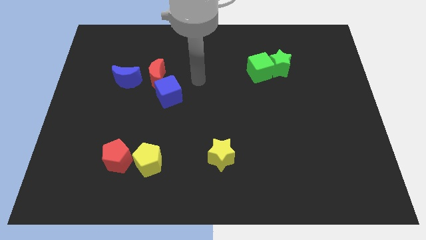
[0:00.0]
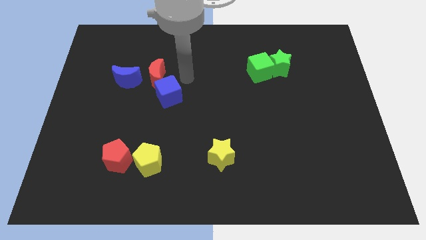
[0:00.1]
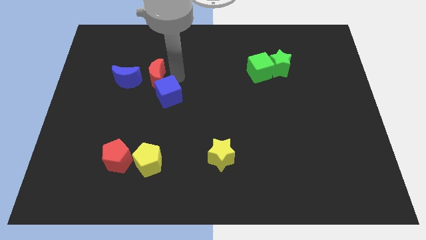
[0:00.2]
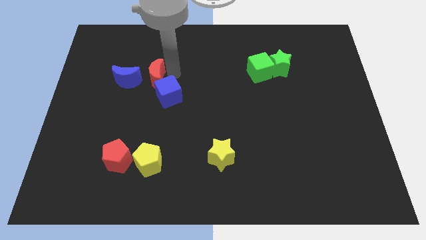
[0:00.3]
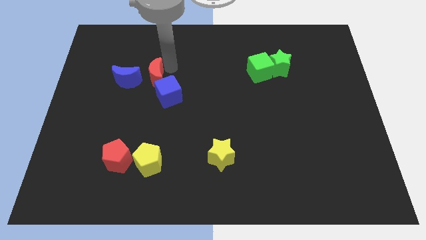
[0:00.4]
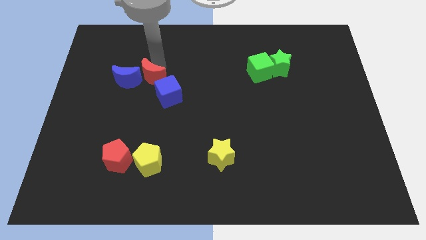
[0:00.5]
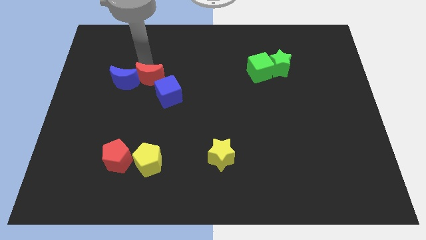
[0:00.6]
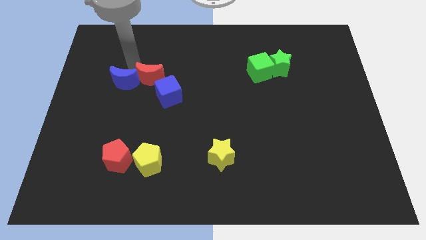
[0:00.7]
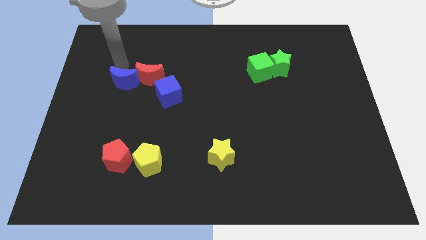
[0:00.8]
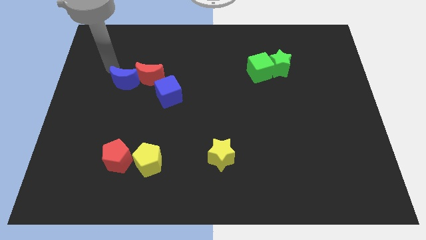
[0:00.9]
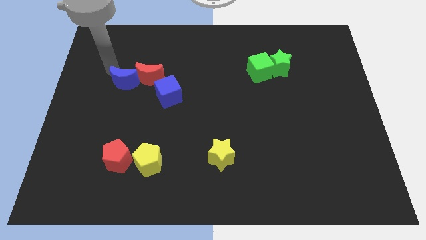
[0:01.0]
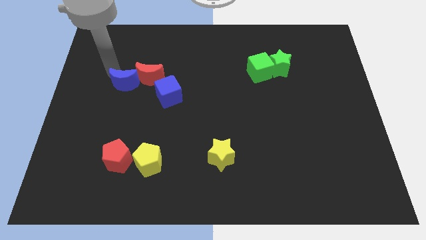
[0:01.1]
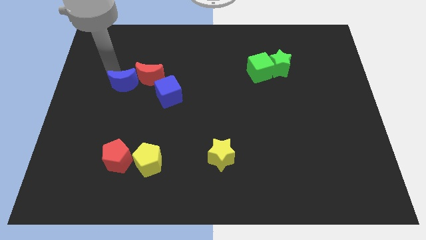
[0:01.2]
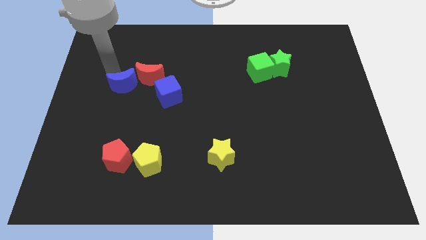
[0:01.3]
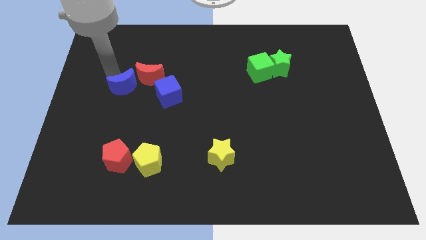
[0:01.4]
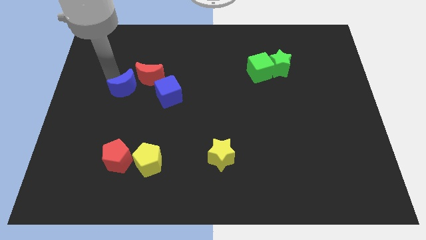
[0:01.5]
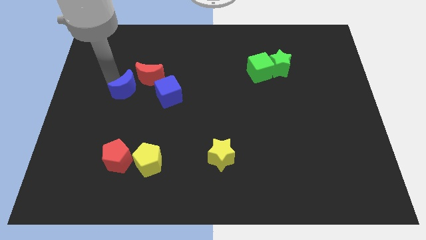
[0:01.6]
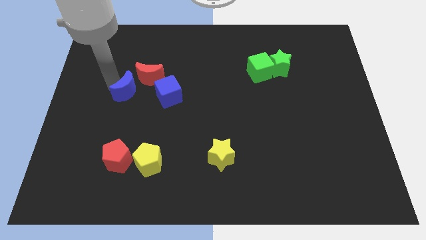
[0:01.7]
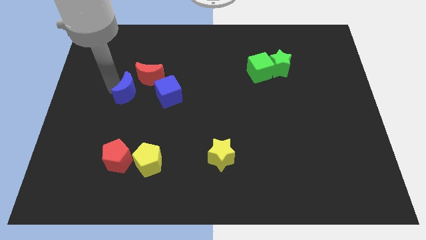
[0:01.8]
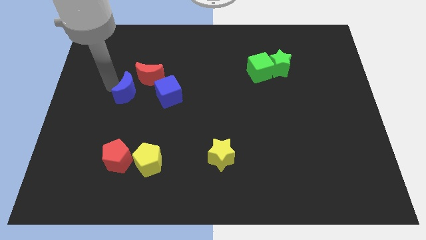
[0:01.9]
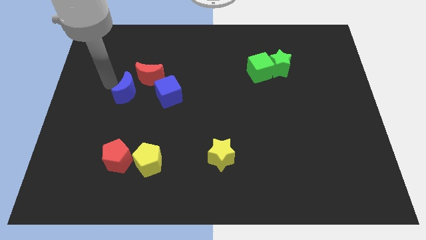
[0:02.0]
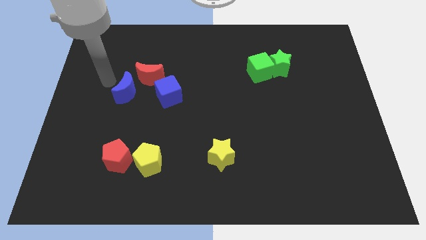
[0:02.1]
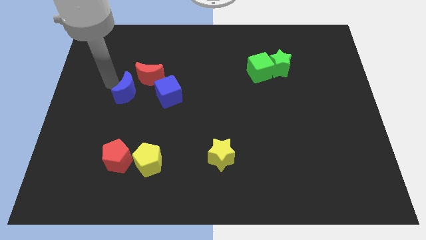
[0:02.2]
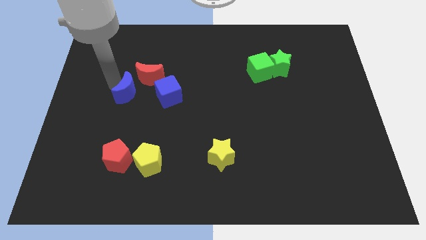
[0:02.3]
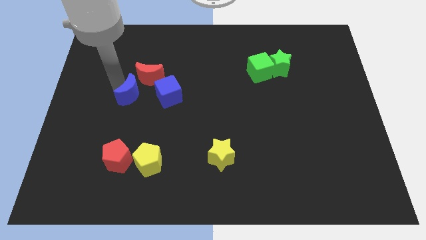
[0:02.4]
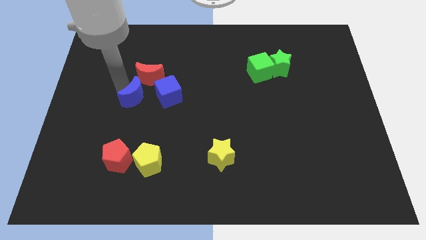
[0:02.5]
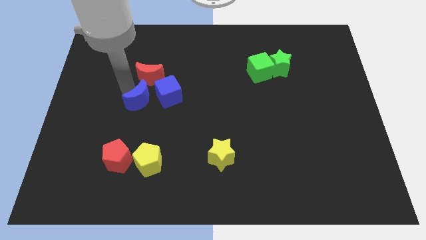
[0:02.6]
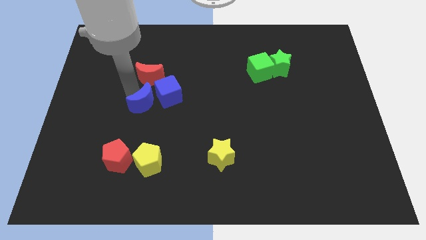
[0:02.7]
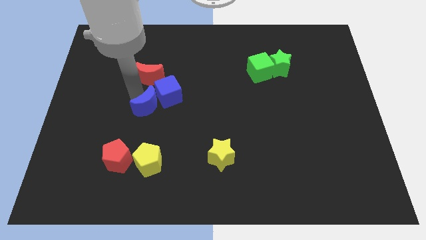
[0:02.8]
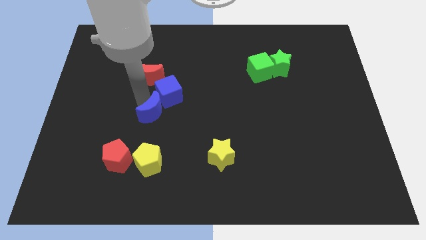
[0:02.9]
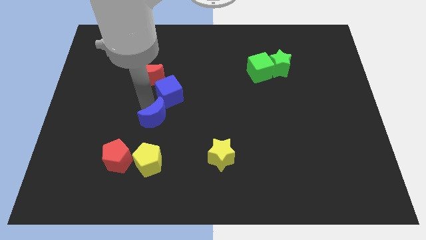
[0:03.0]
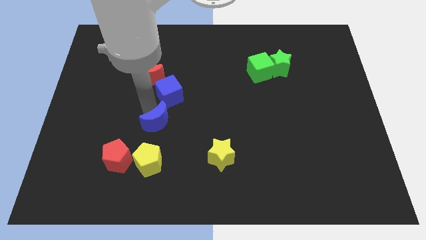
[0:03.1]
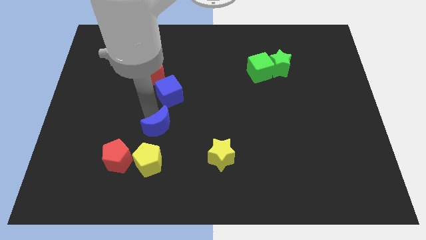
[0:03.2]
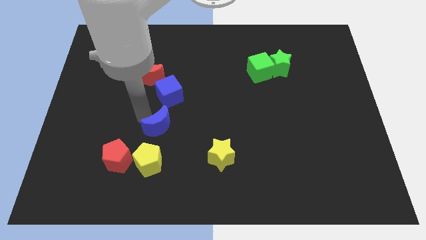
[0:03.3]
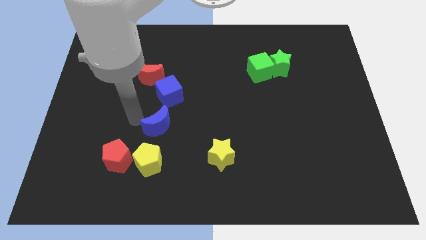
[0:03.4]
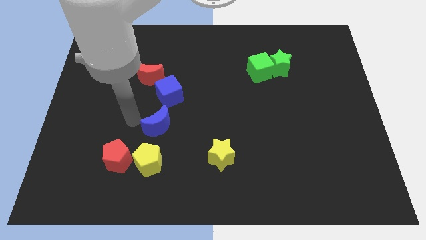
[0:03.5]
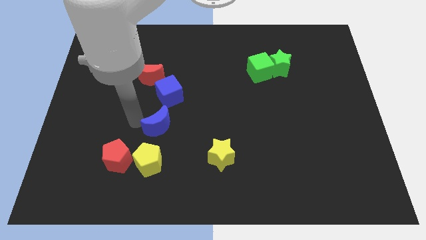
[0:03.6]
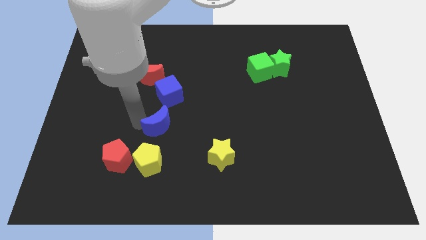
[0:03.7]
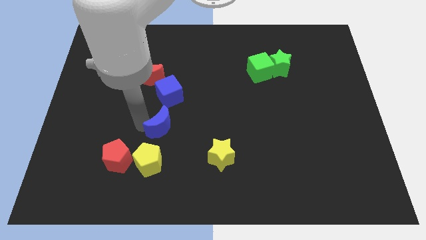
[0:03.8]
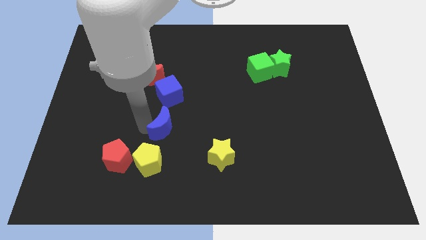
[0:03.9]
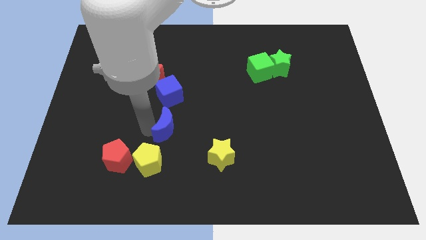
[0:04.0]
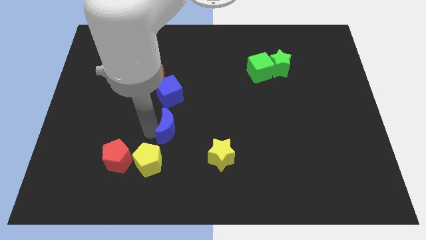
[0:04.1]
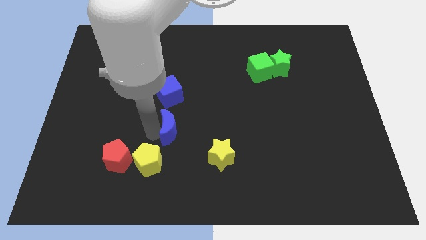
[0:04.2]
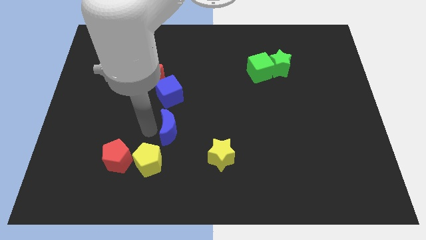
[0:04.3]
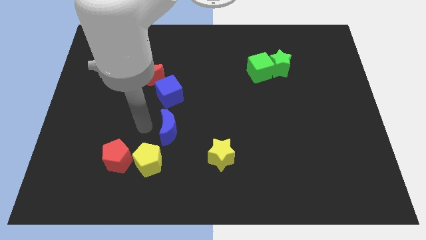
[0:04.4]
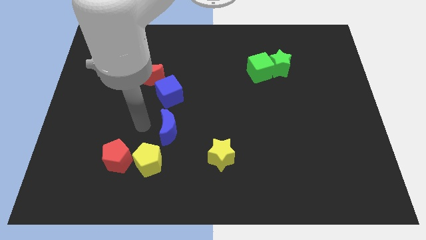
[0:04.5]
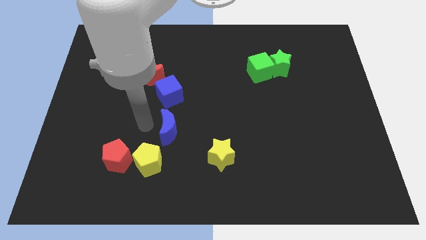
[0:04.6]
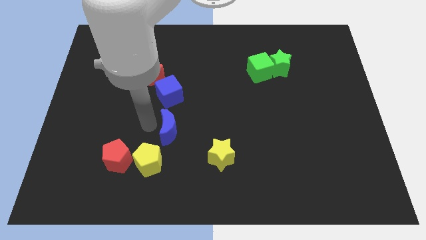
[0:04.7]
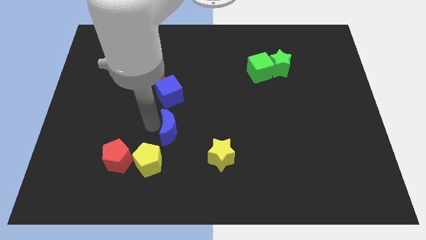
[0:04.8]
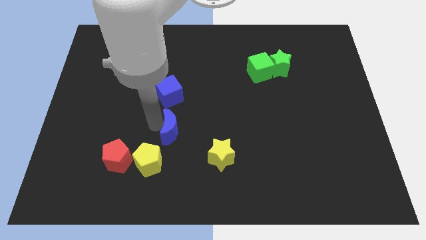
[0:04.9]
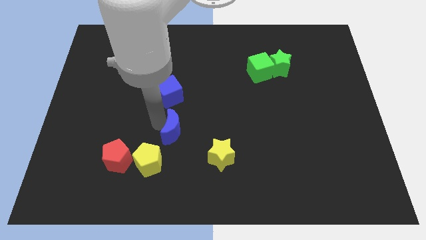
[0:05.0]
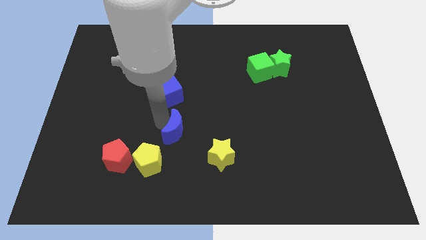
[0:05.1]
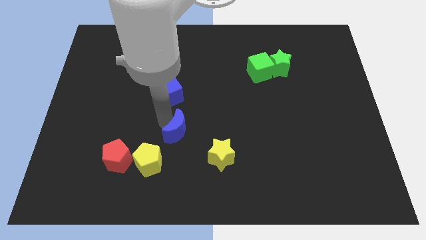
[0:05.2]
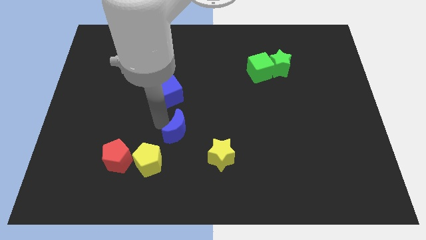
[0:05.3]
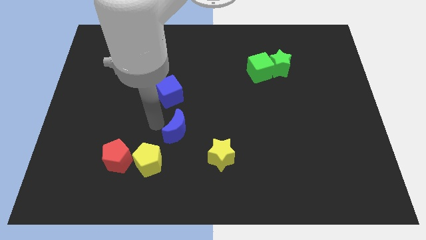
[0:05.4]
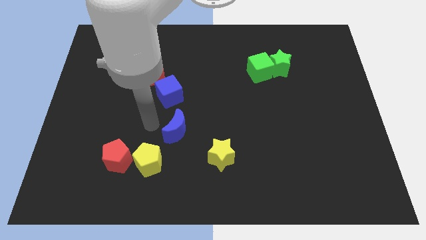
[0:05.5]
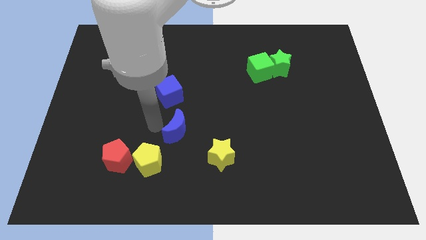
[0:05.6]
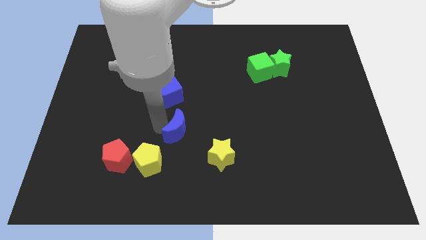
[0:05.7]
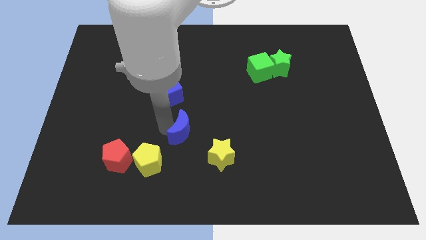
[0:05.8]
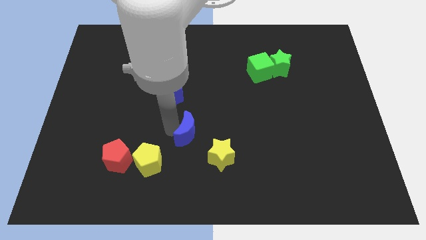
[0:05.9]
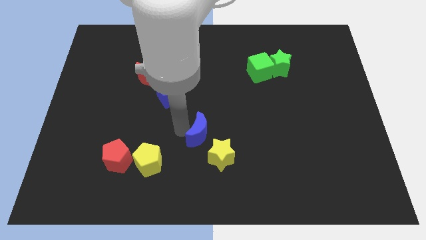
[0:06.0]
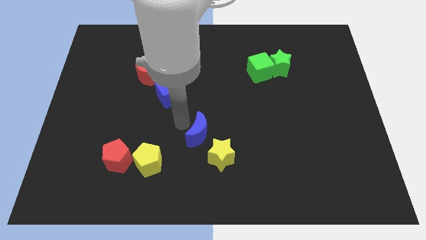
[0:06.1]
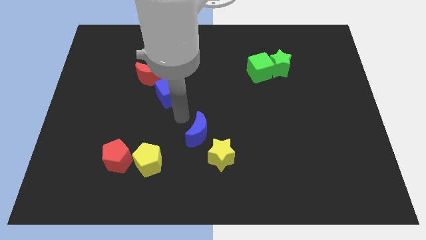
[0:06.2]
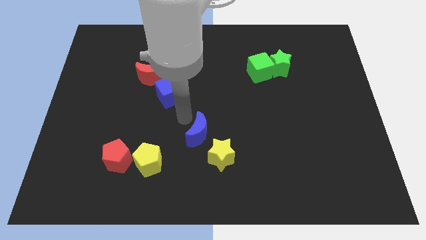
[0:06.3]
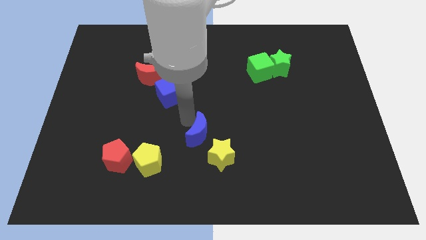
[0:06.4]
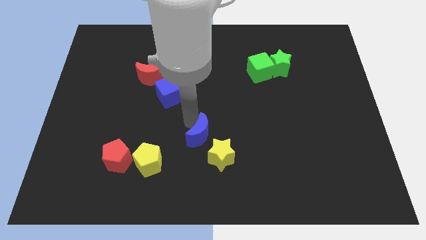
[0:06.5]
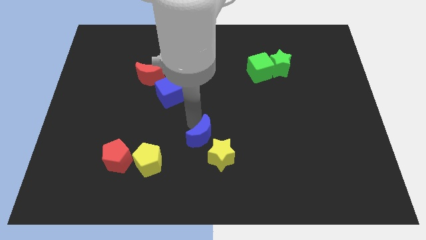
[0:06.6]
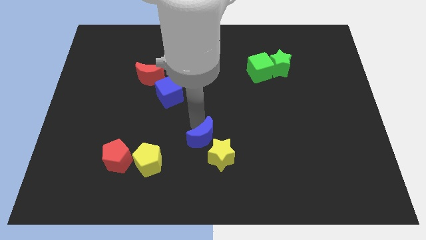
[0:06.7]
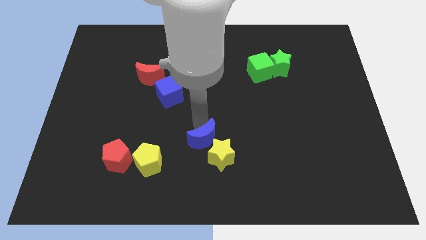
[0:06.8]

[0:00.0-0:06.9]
move the blue moon close to the yellow star
